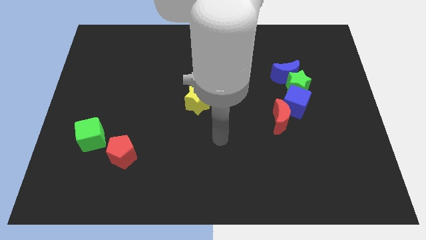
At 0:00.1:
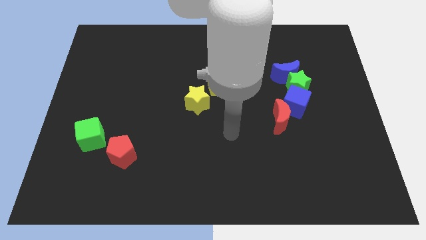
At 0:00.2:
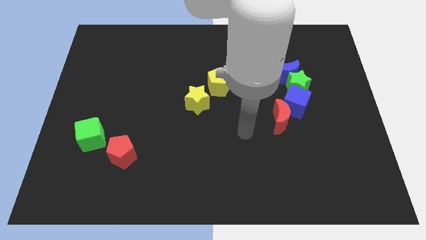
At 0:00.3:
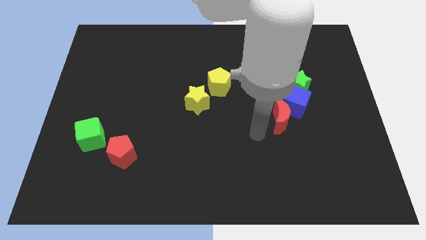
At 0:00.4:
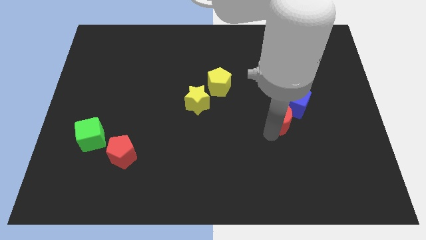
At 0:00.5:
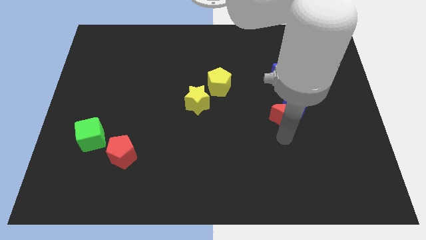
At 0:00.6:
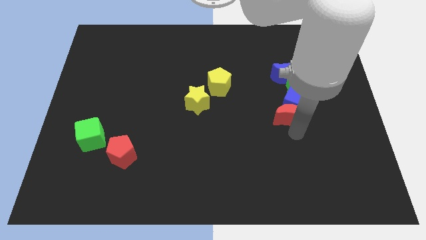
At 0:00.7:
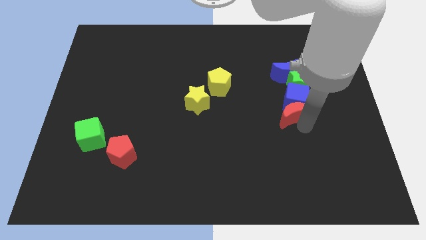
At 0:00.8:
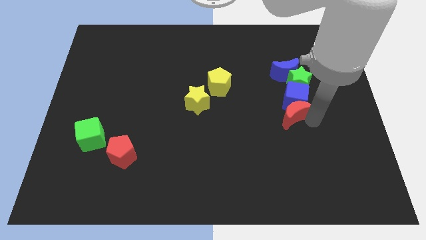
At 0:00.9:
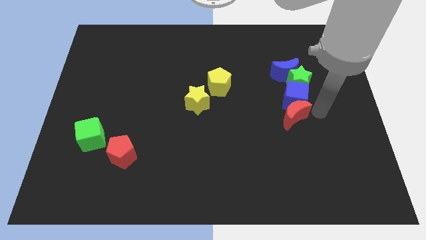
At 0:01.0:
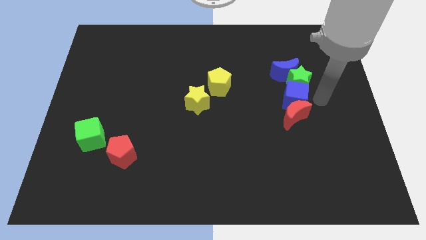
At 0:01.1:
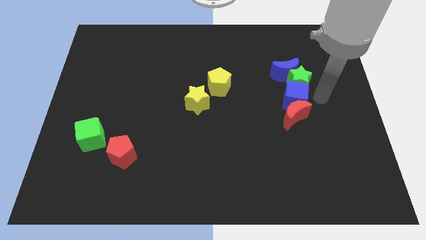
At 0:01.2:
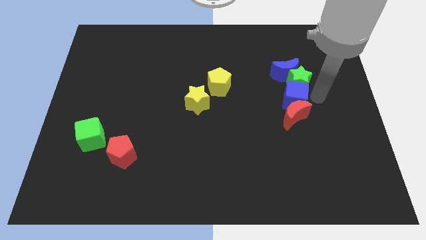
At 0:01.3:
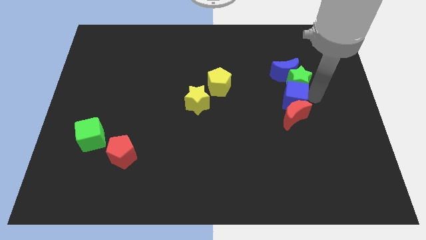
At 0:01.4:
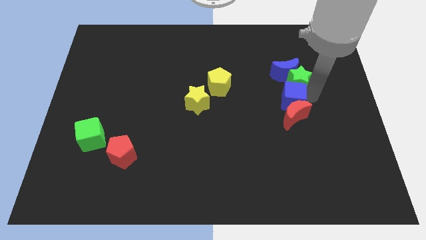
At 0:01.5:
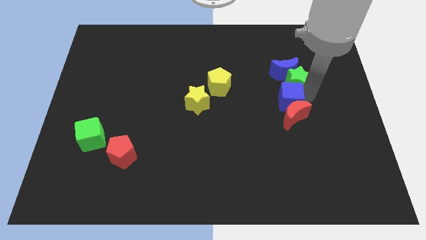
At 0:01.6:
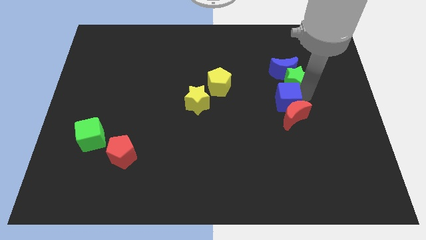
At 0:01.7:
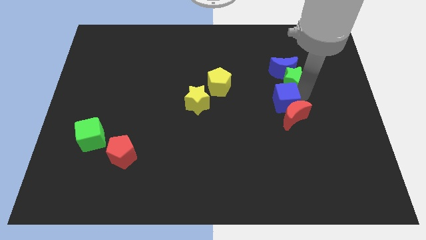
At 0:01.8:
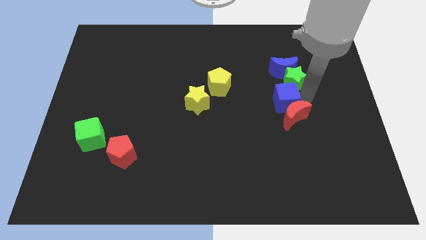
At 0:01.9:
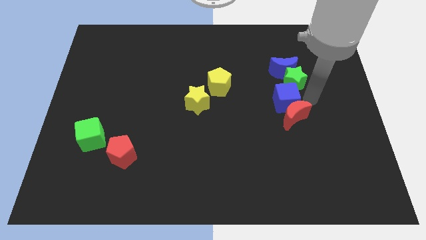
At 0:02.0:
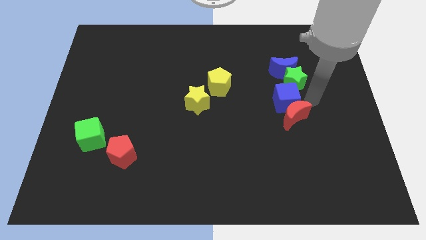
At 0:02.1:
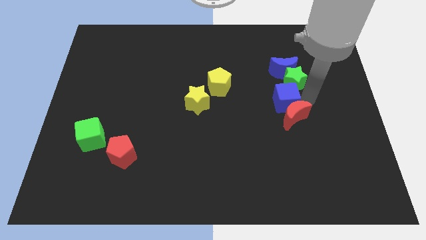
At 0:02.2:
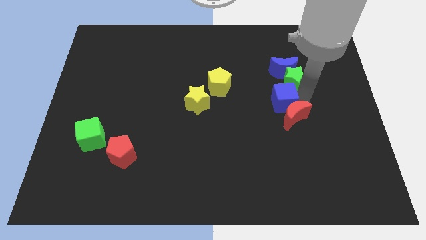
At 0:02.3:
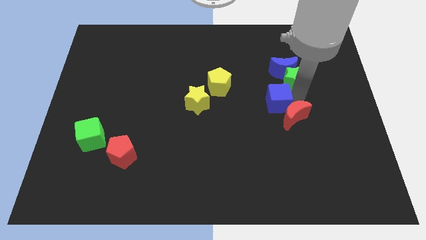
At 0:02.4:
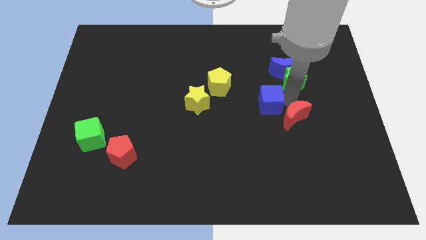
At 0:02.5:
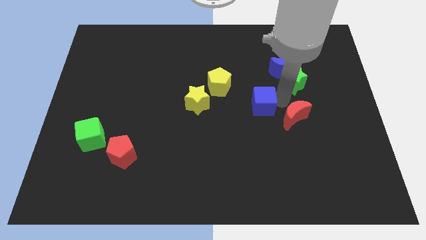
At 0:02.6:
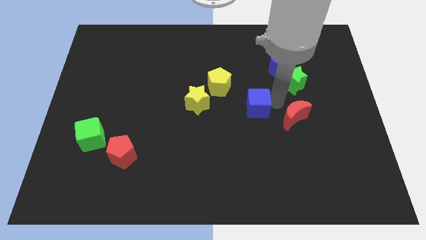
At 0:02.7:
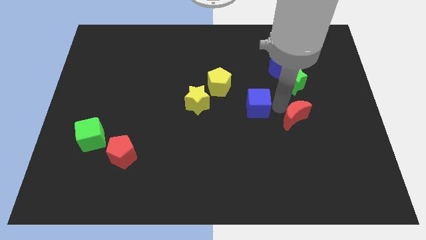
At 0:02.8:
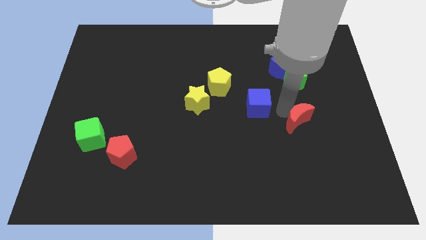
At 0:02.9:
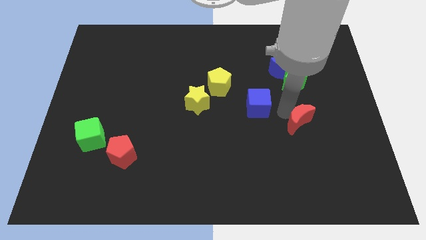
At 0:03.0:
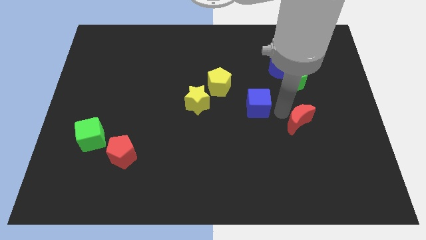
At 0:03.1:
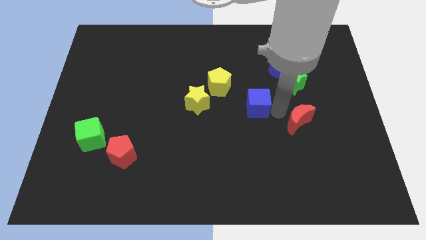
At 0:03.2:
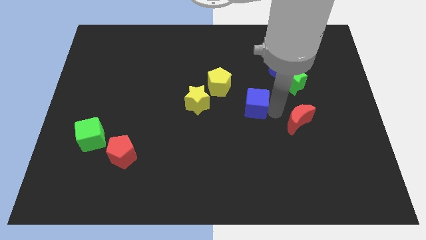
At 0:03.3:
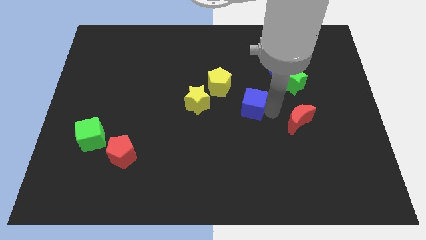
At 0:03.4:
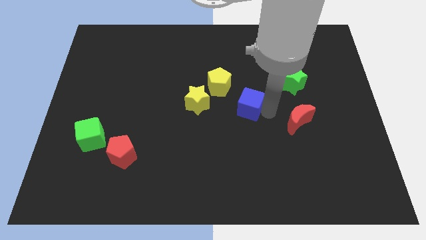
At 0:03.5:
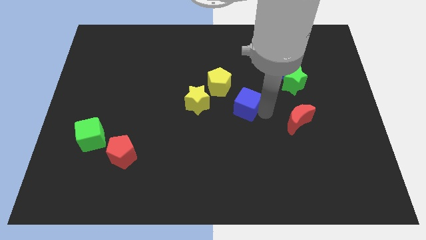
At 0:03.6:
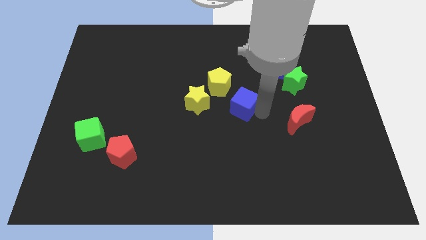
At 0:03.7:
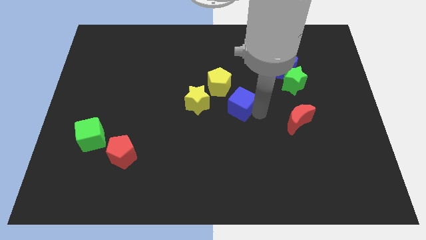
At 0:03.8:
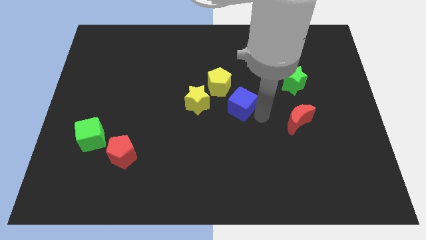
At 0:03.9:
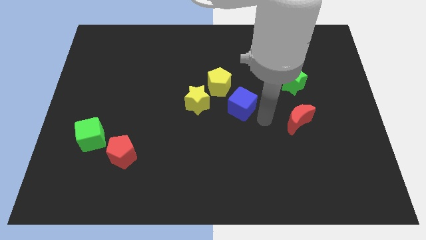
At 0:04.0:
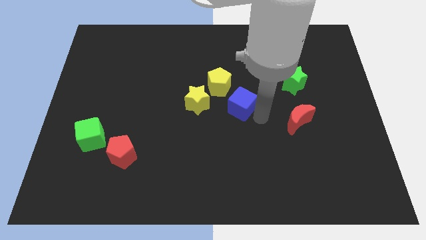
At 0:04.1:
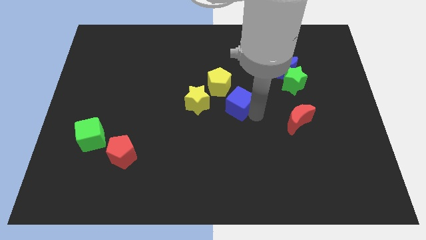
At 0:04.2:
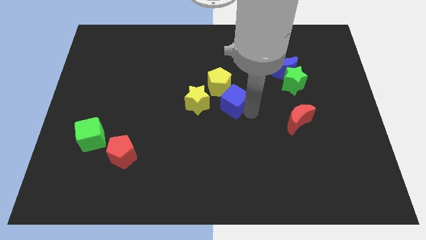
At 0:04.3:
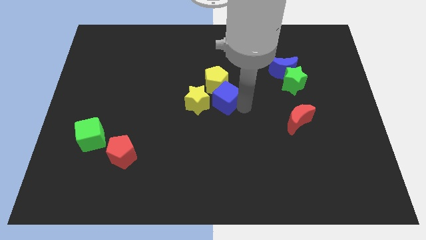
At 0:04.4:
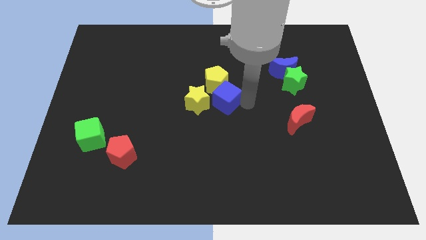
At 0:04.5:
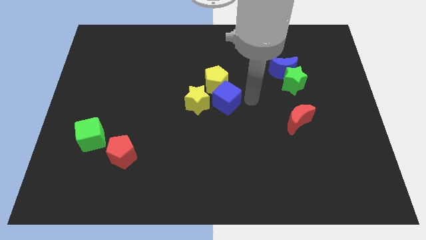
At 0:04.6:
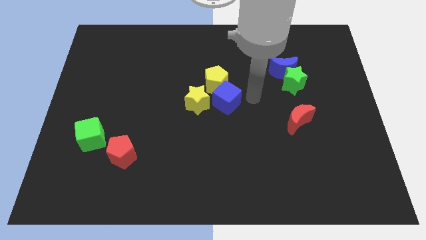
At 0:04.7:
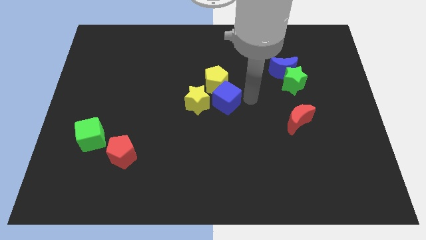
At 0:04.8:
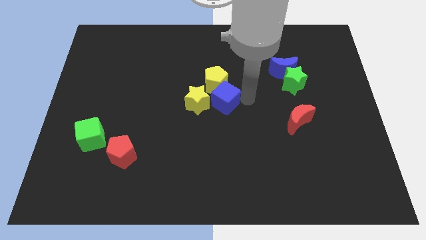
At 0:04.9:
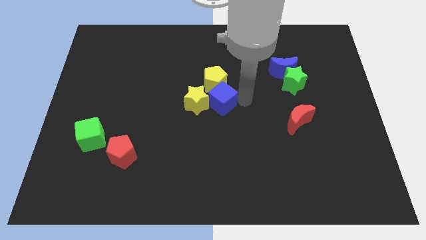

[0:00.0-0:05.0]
put the blue cube towards the yellow star

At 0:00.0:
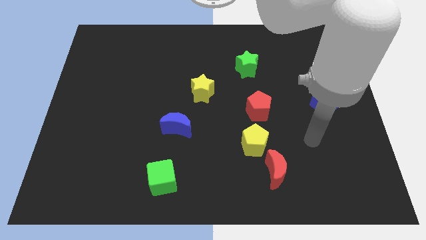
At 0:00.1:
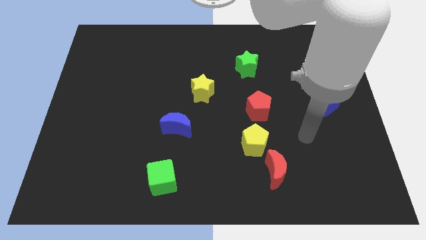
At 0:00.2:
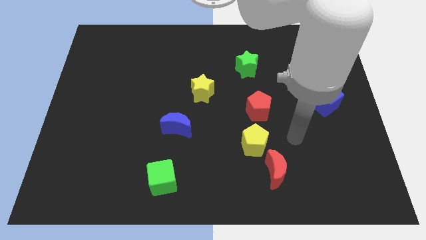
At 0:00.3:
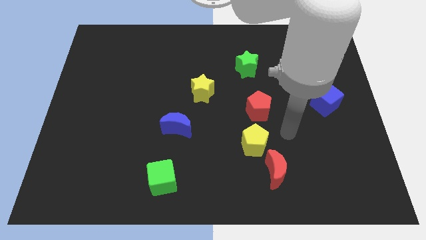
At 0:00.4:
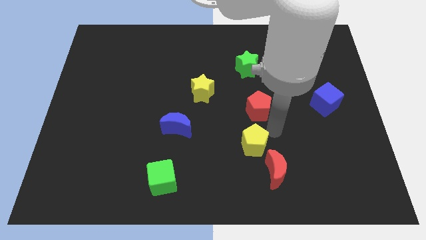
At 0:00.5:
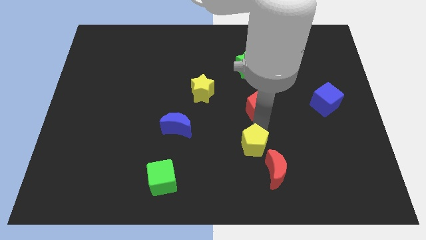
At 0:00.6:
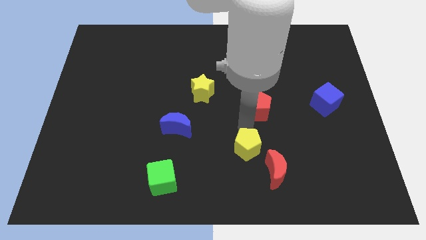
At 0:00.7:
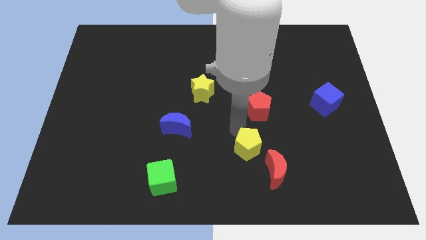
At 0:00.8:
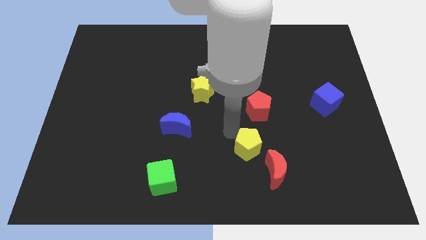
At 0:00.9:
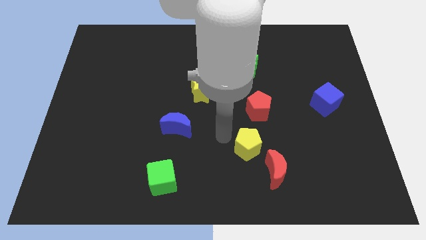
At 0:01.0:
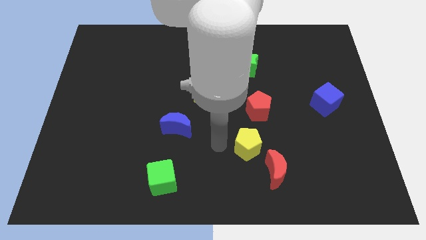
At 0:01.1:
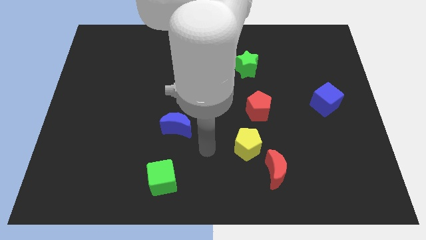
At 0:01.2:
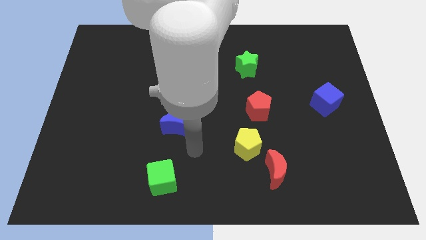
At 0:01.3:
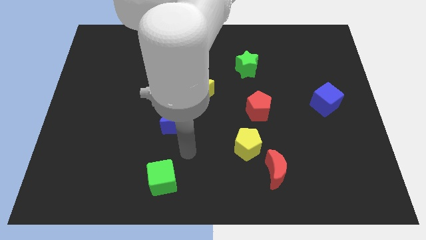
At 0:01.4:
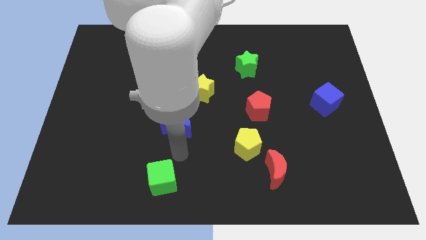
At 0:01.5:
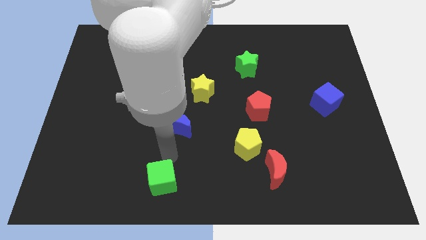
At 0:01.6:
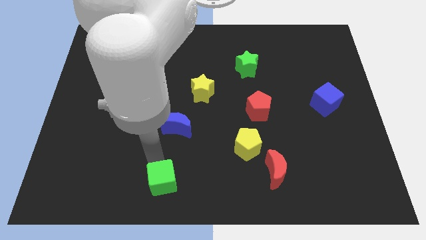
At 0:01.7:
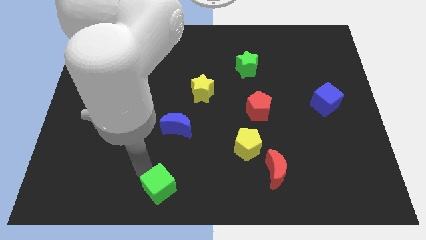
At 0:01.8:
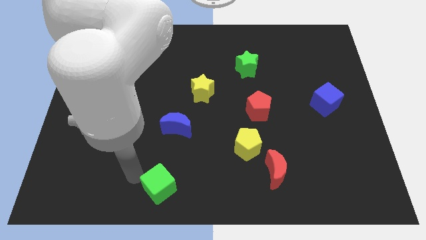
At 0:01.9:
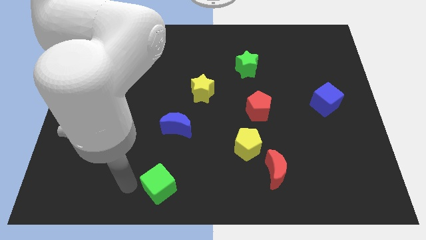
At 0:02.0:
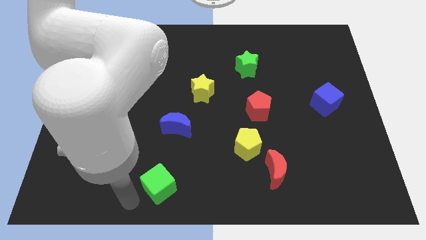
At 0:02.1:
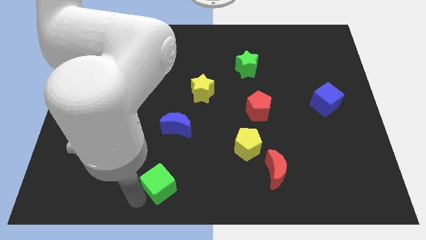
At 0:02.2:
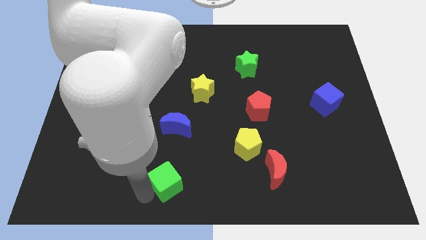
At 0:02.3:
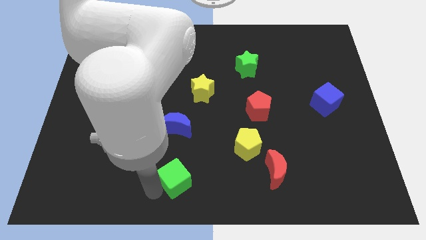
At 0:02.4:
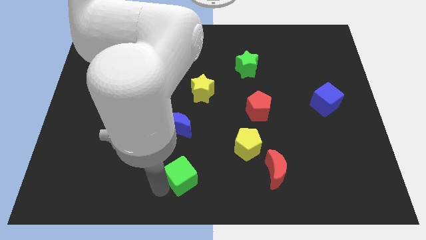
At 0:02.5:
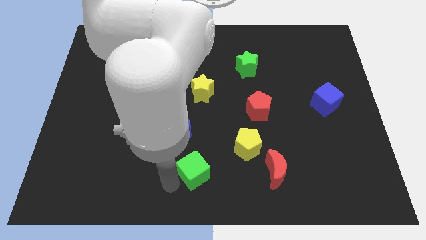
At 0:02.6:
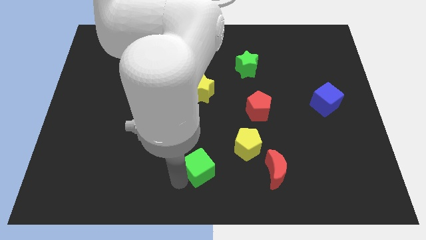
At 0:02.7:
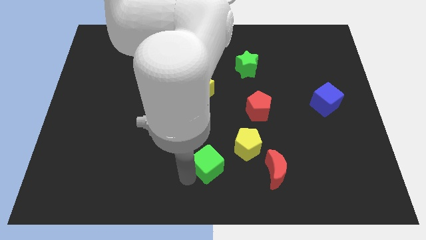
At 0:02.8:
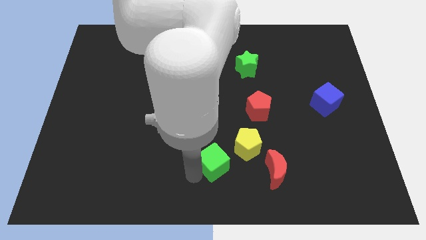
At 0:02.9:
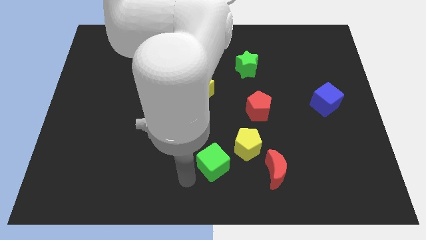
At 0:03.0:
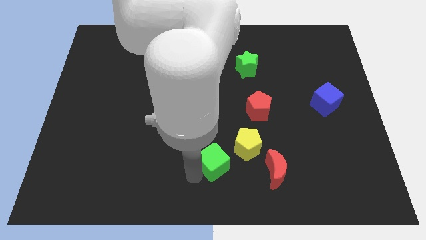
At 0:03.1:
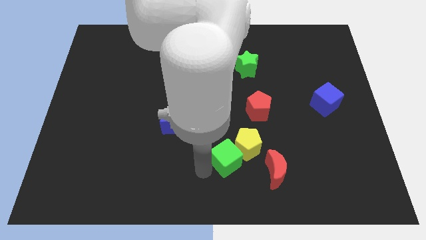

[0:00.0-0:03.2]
move the green cube close to the yellow pentagon
